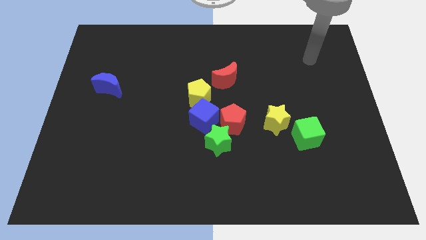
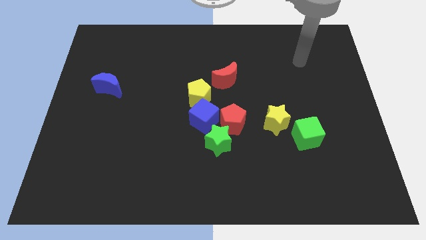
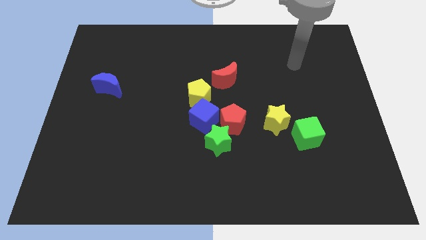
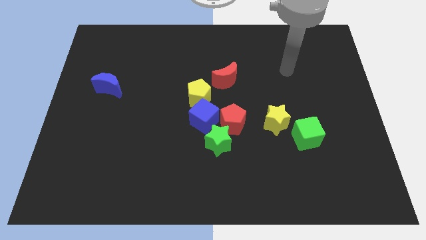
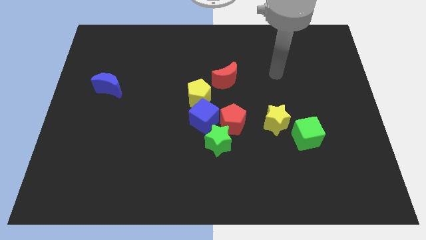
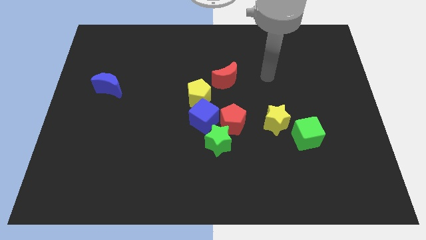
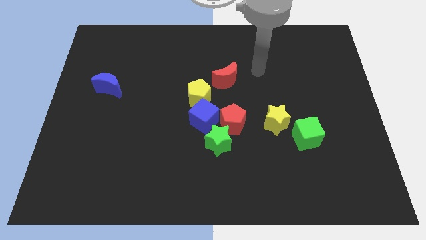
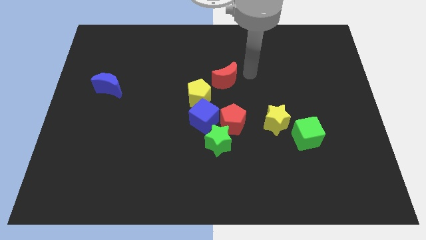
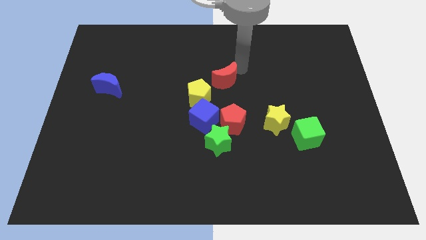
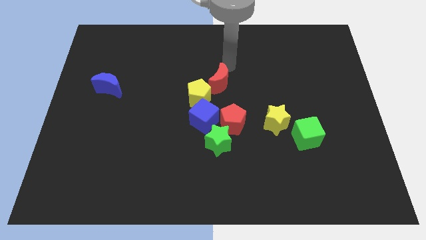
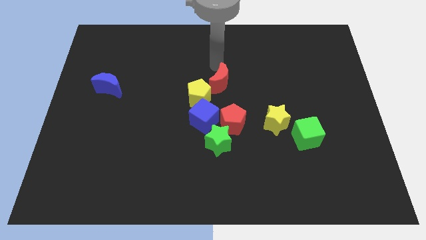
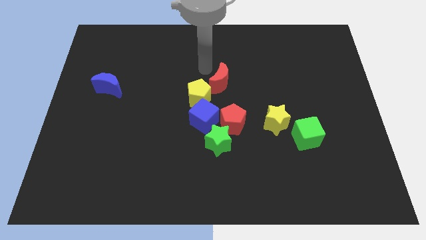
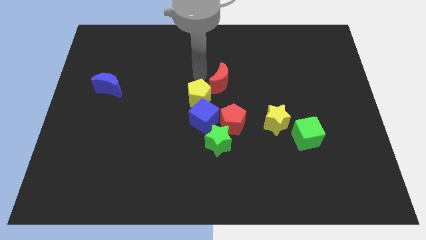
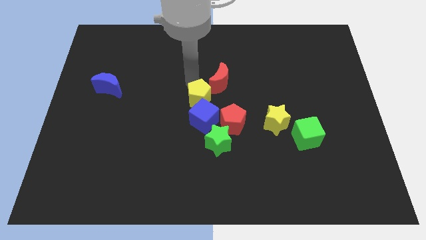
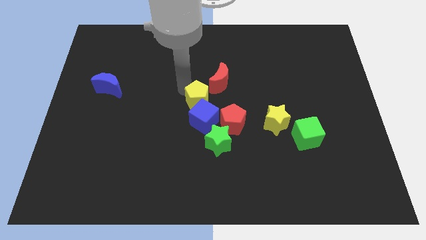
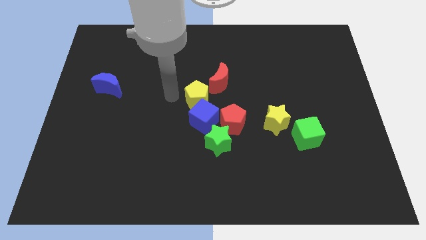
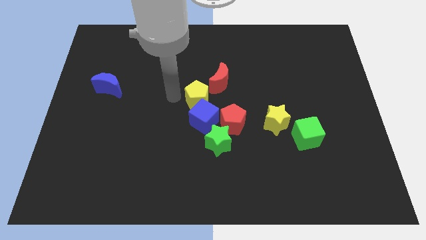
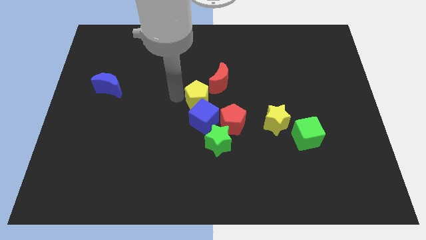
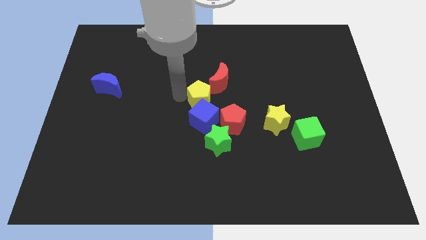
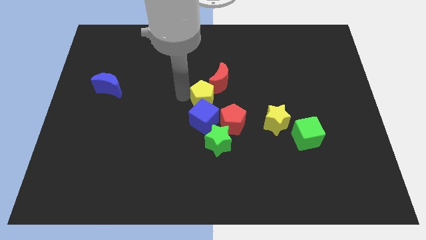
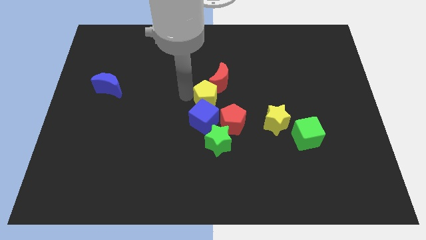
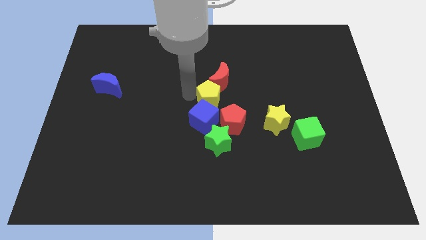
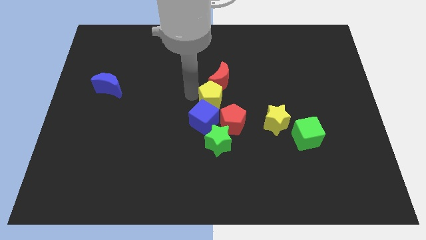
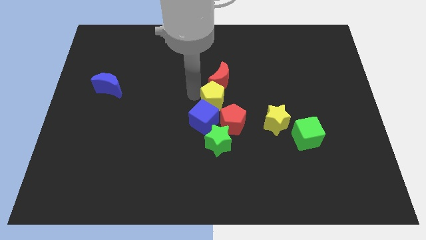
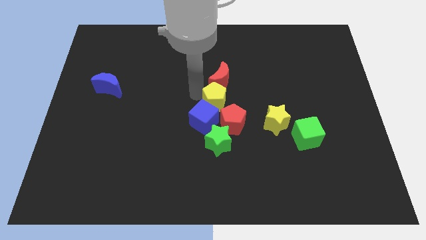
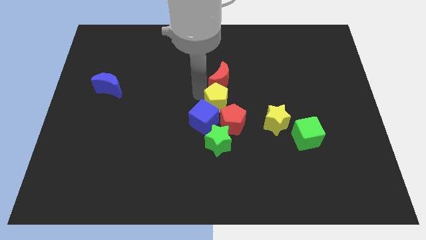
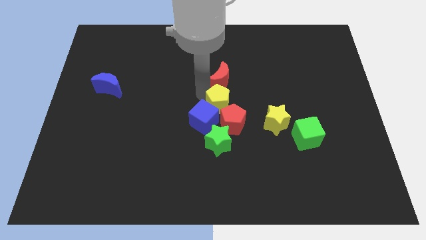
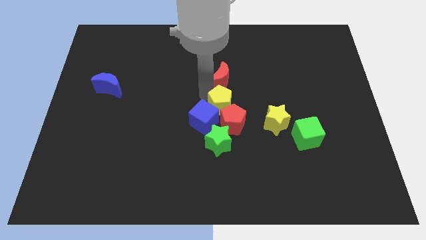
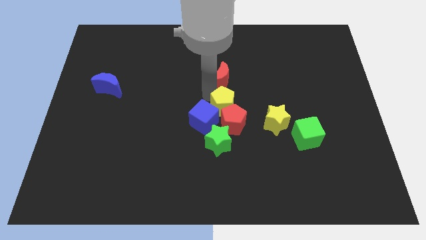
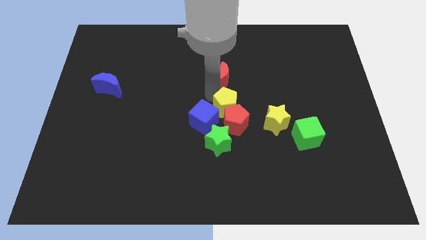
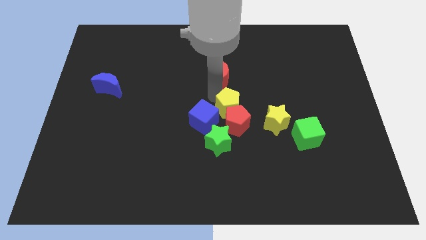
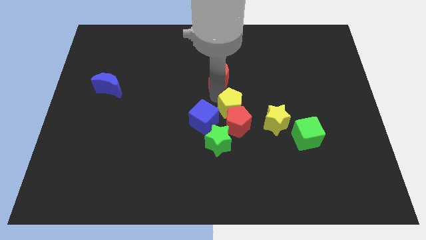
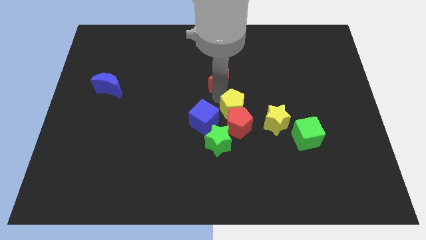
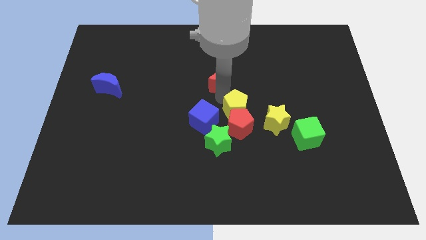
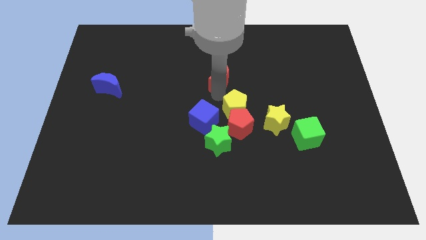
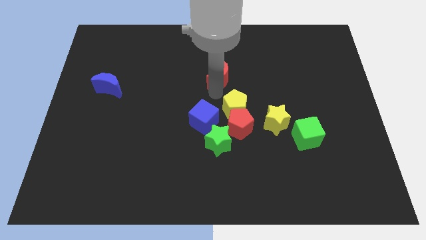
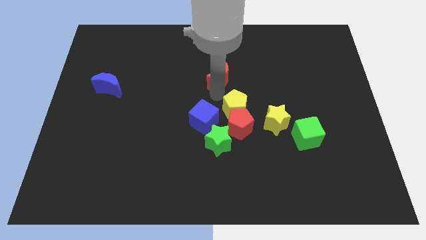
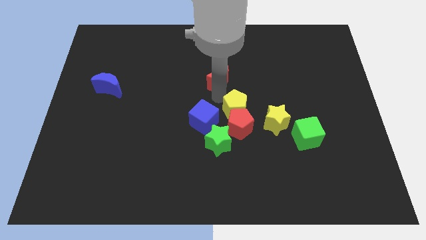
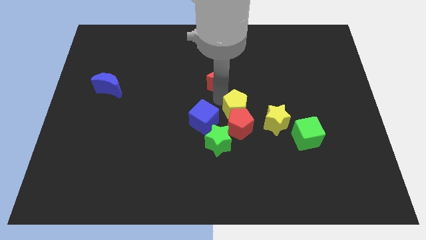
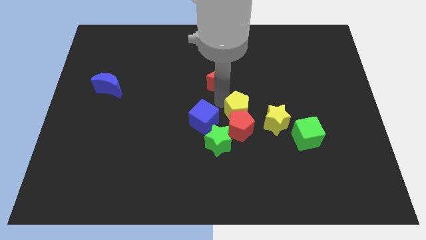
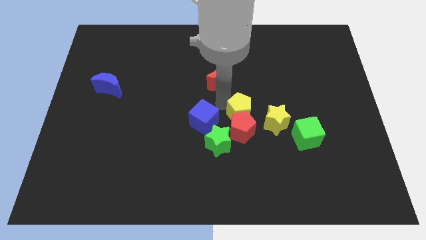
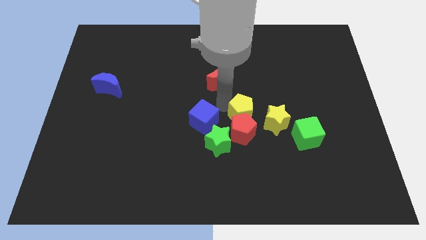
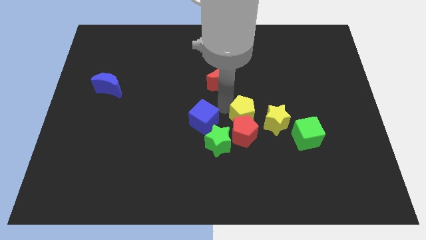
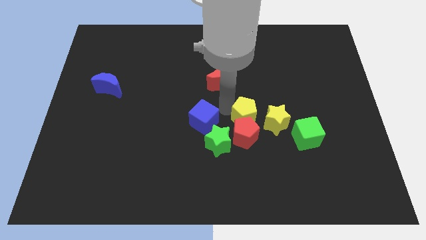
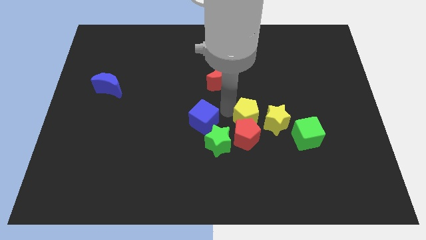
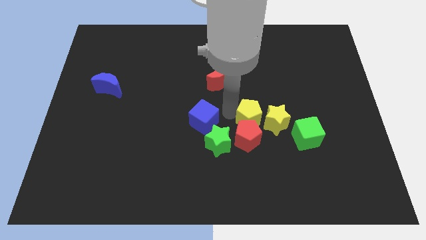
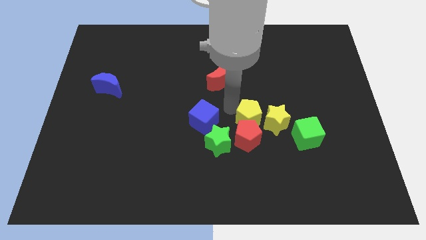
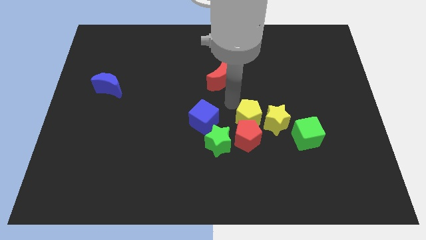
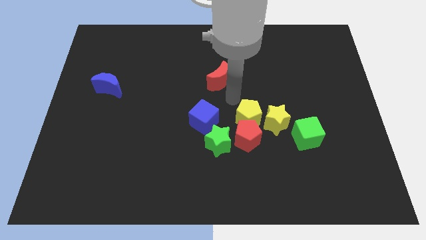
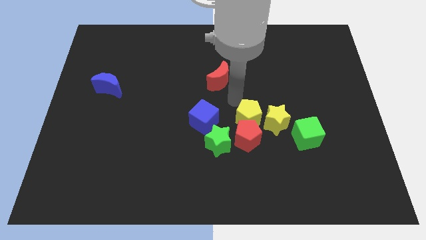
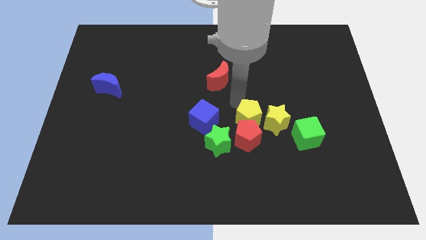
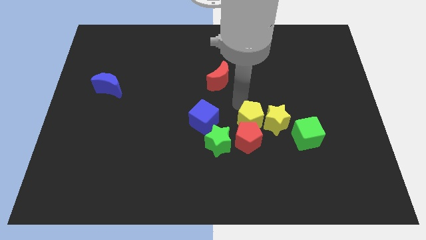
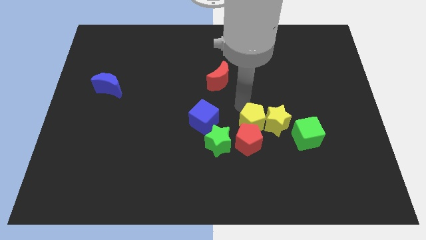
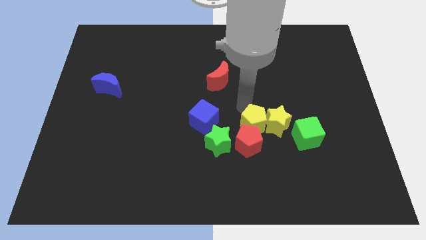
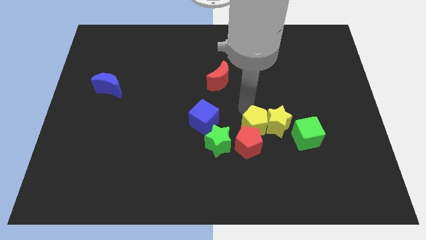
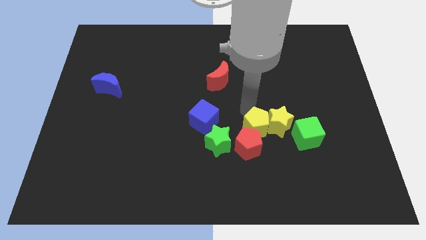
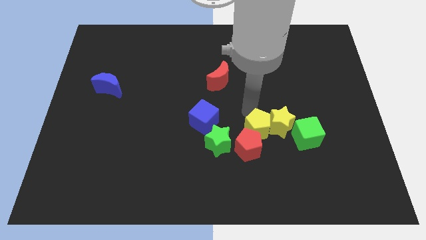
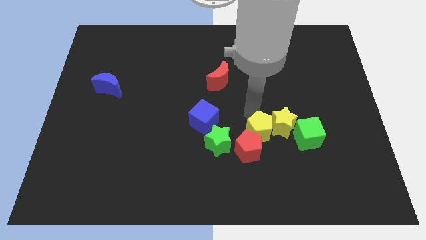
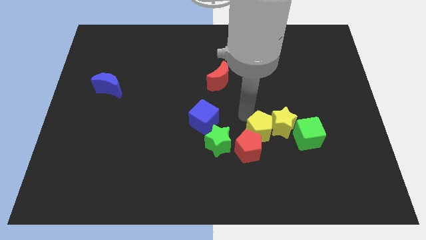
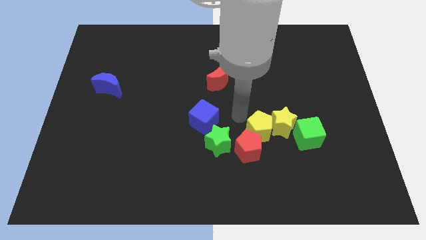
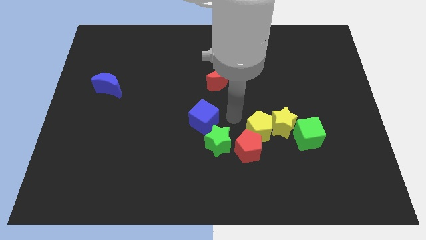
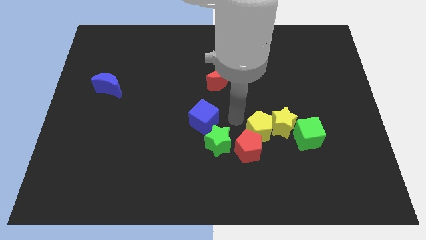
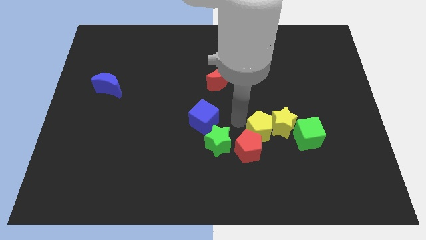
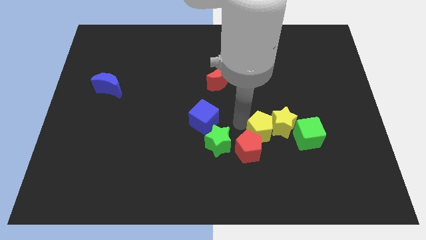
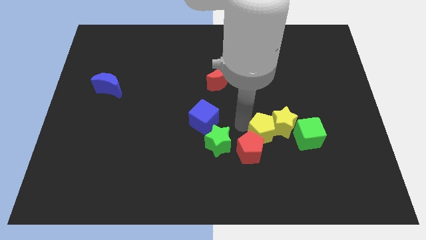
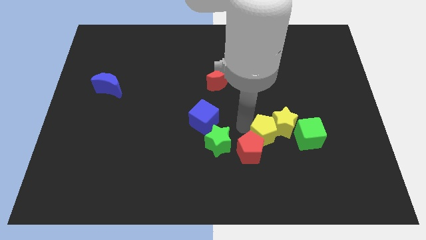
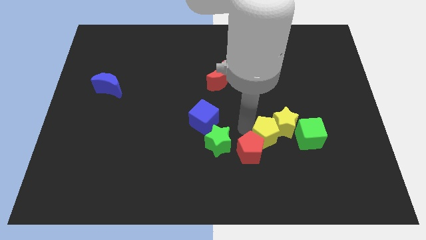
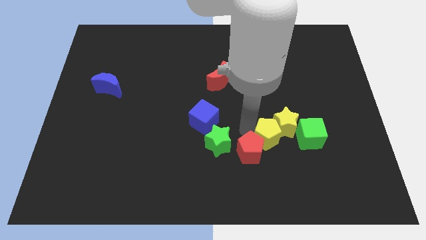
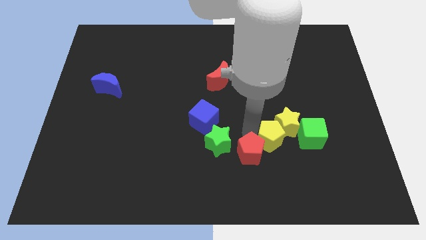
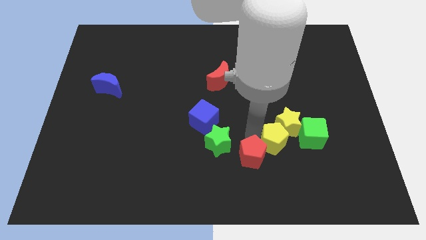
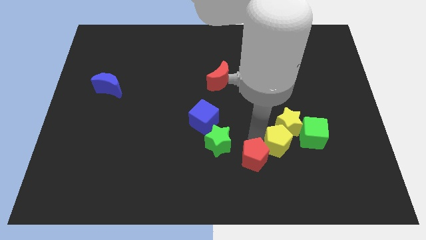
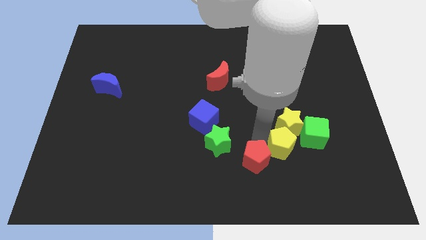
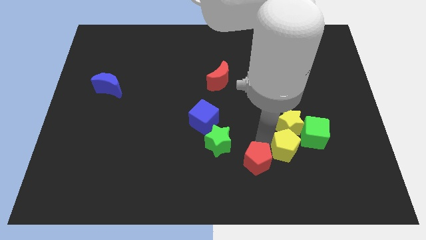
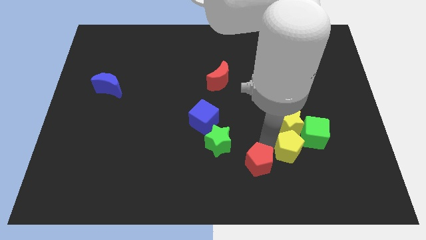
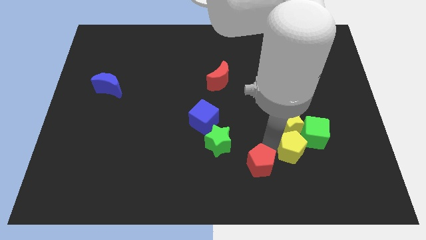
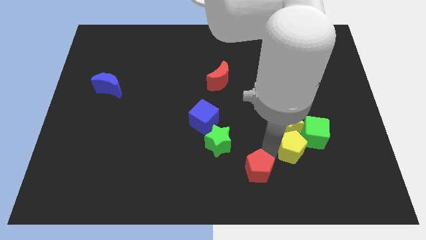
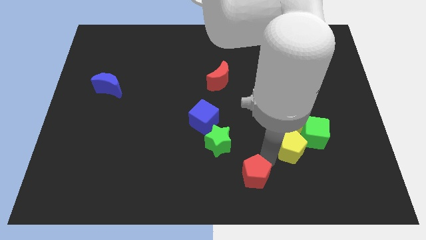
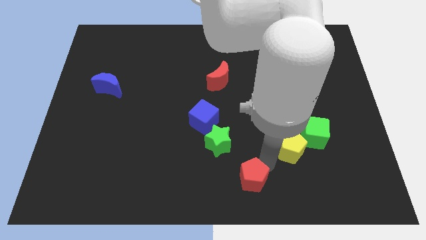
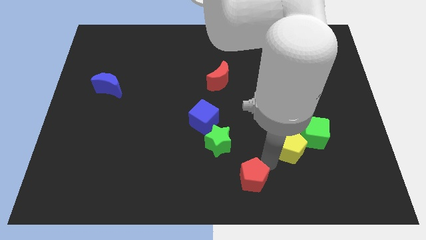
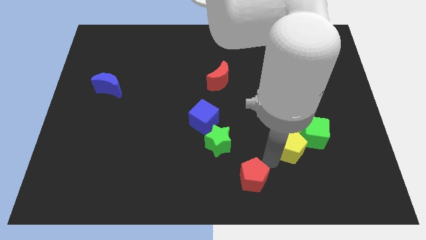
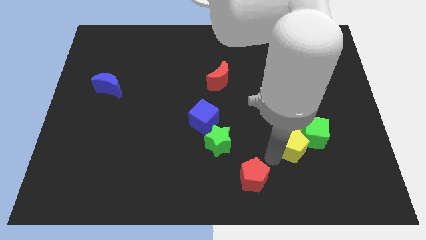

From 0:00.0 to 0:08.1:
push the yellow pentagon close to the green cube

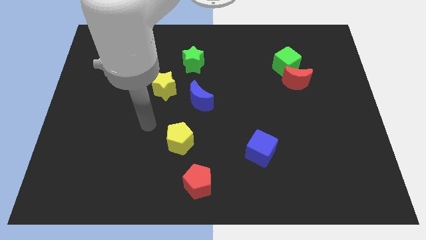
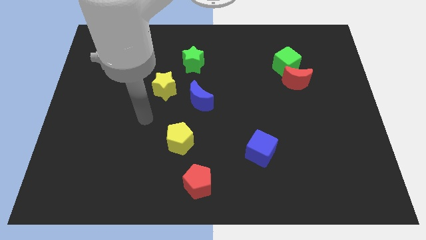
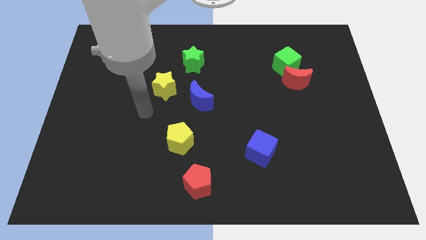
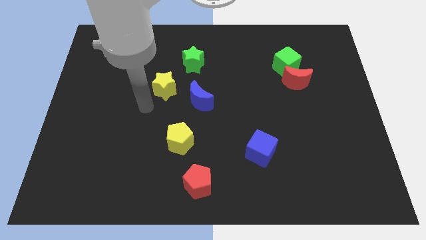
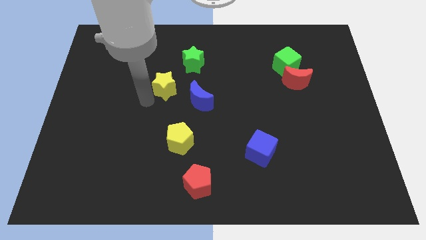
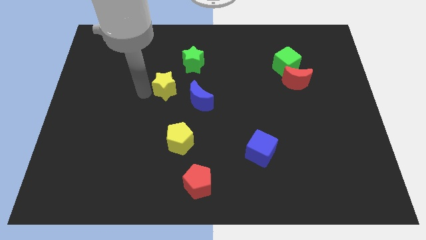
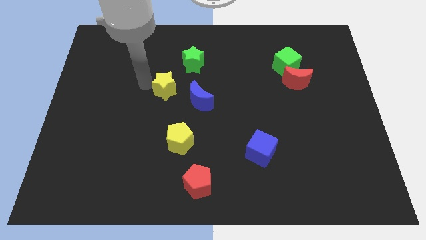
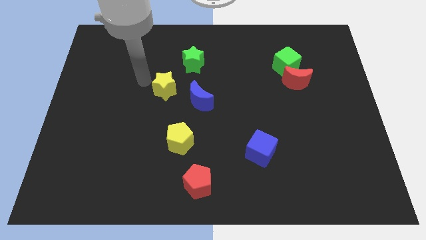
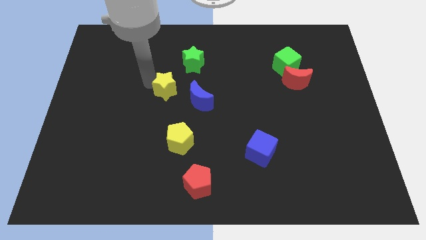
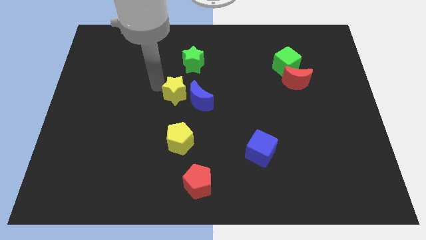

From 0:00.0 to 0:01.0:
slide the yellow star next to the blue moon
